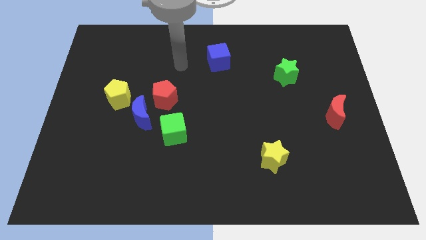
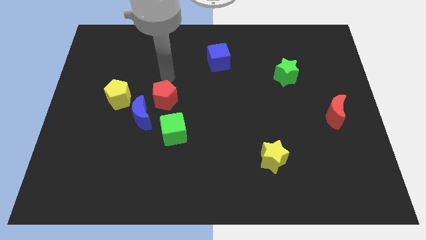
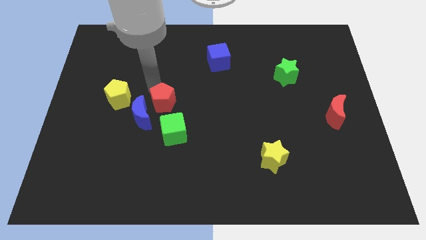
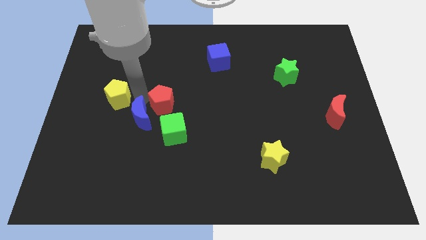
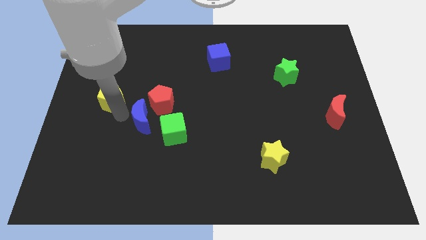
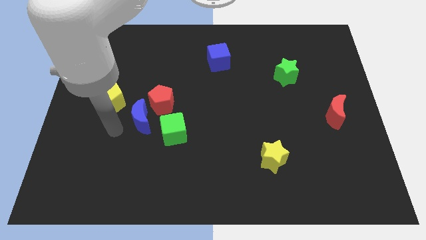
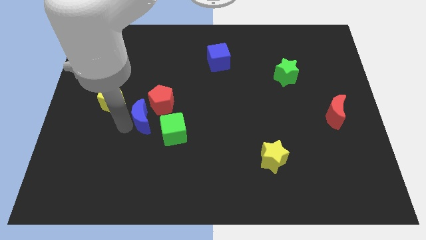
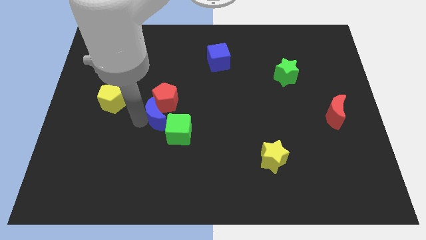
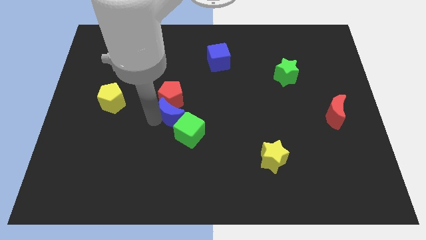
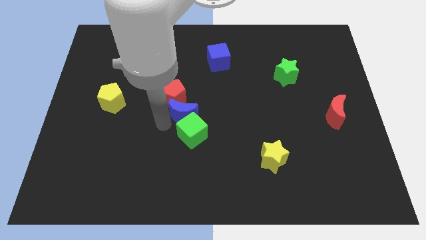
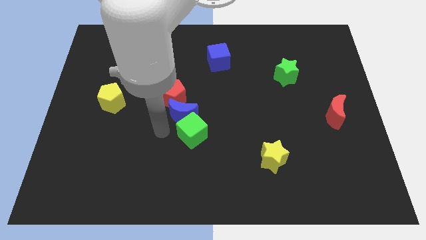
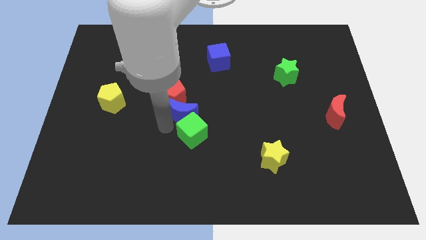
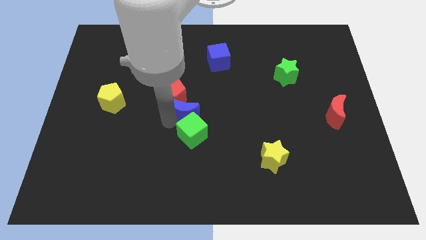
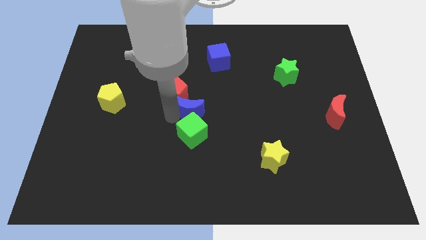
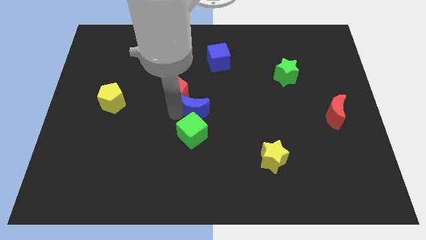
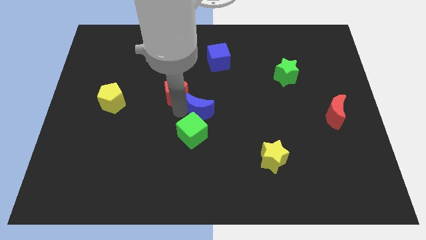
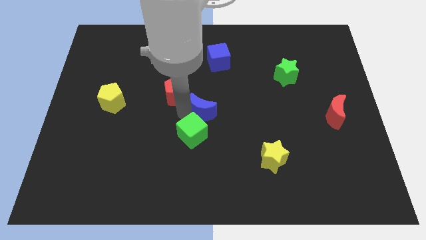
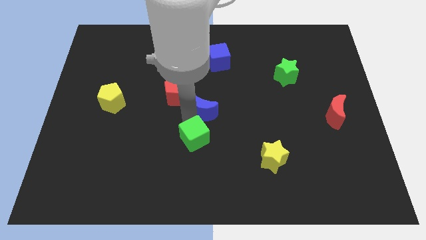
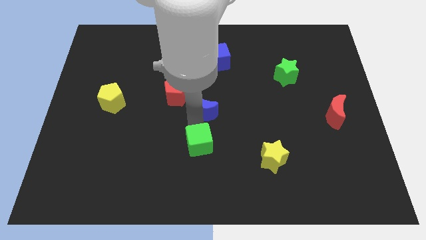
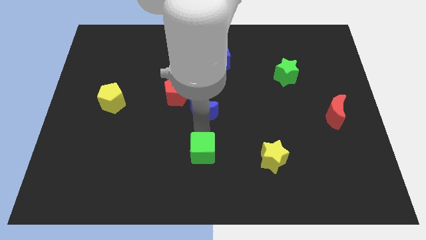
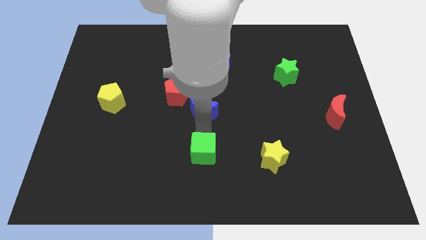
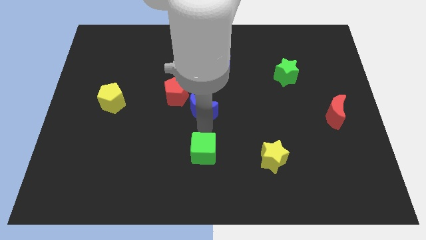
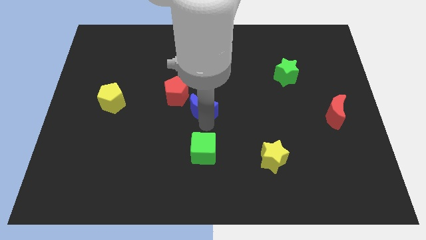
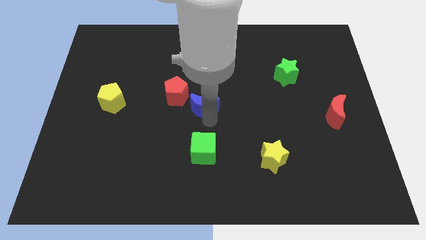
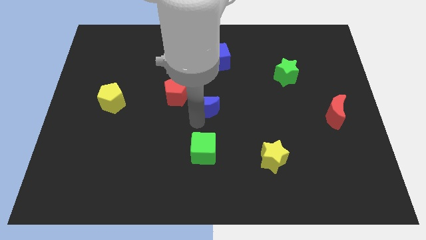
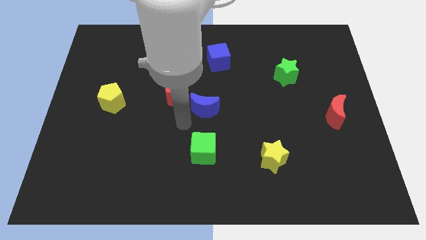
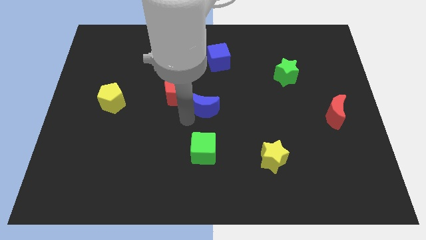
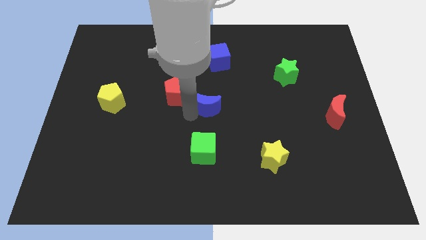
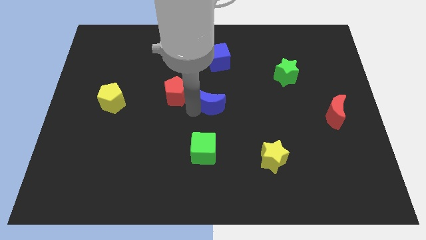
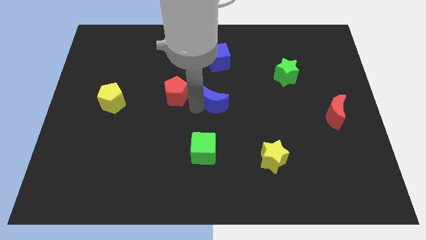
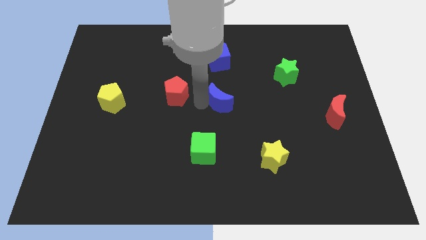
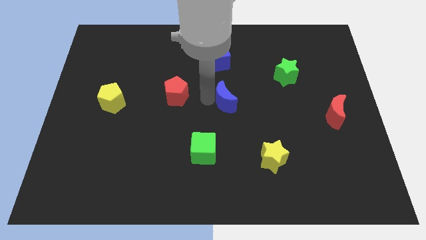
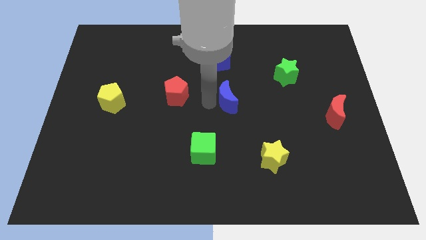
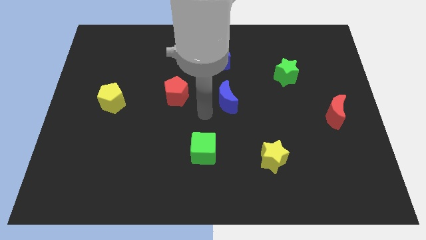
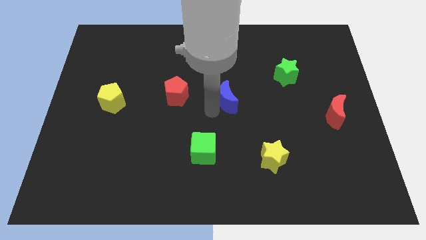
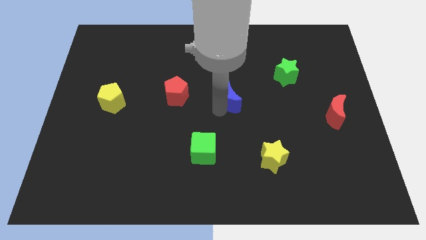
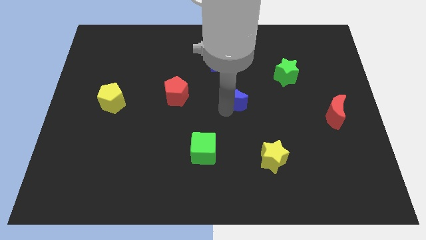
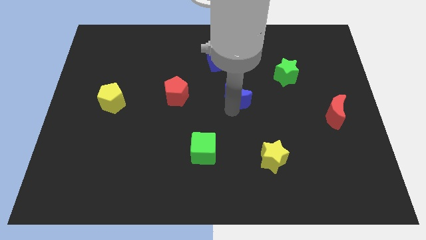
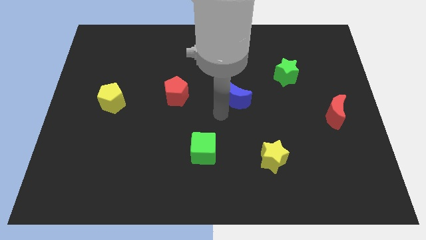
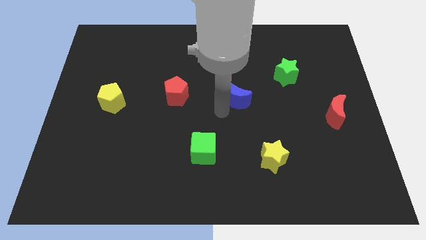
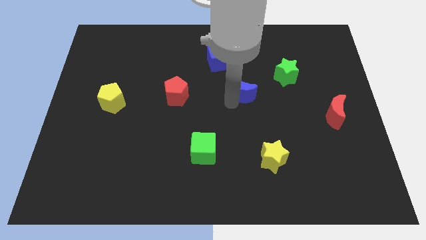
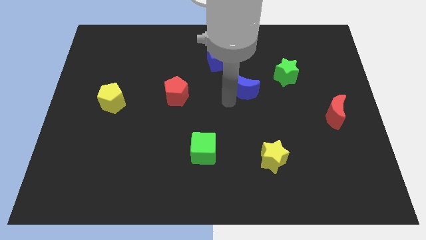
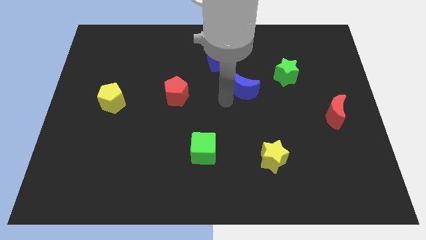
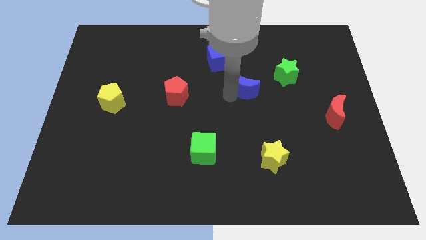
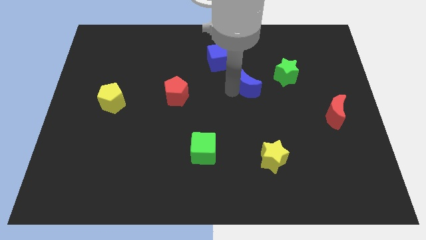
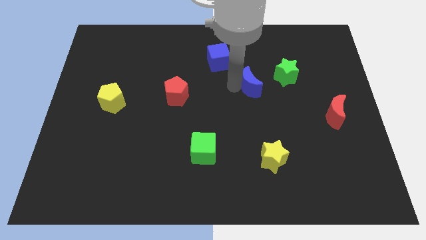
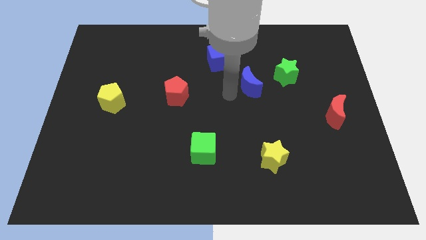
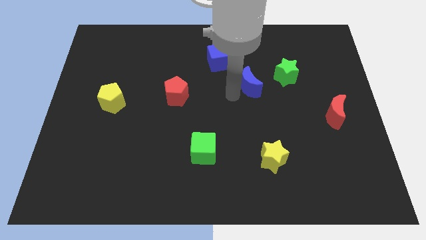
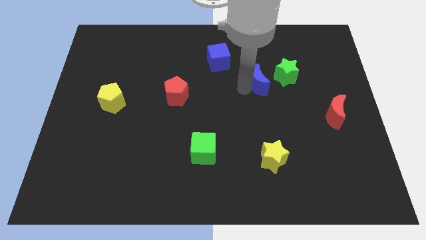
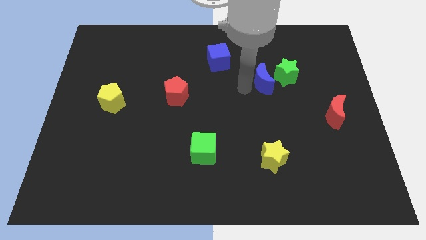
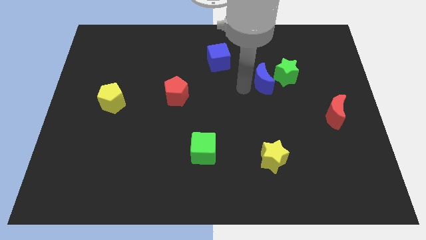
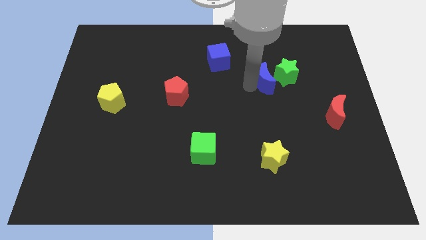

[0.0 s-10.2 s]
put the blue moon to the green star

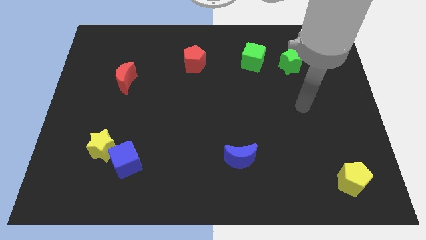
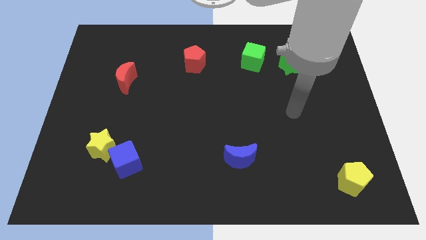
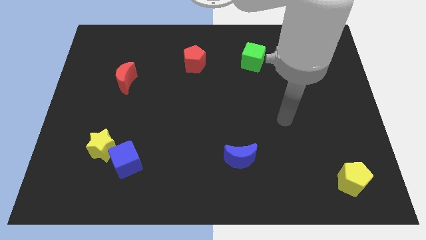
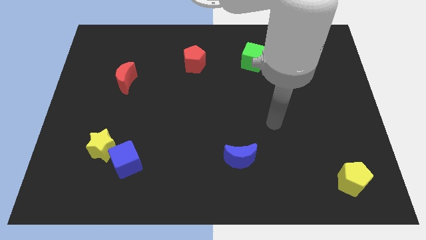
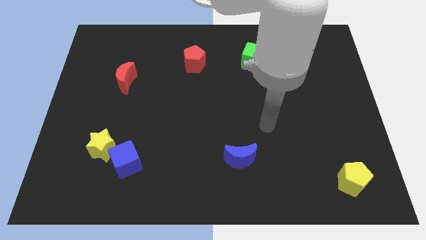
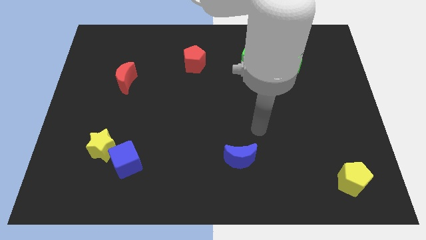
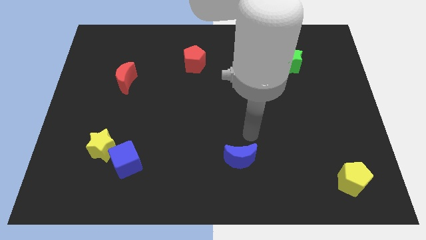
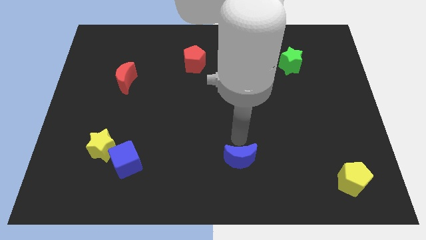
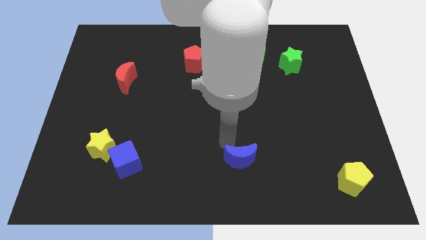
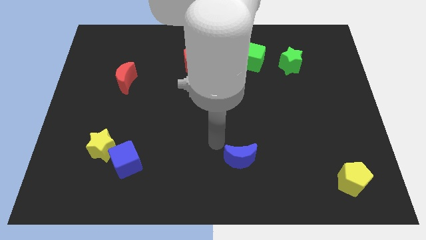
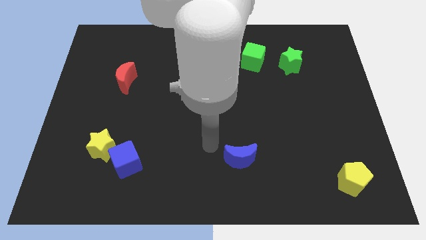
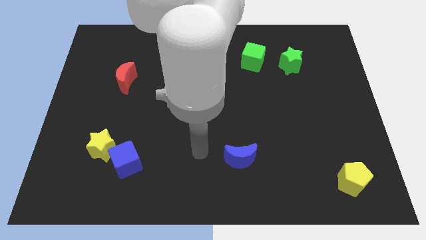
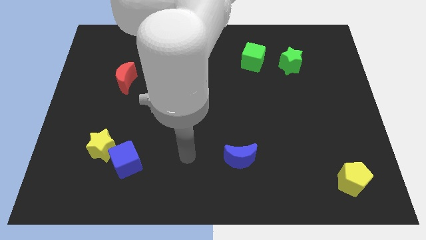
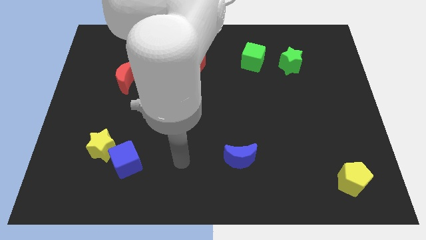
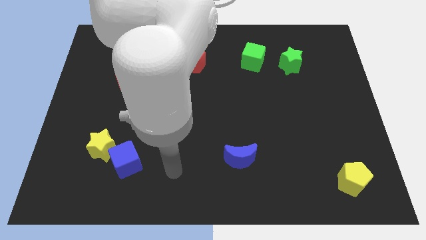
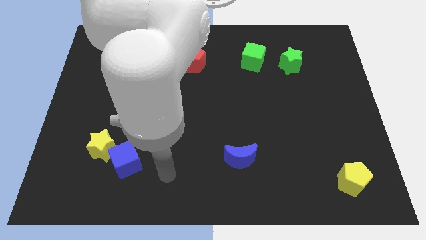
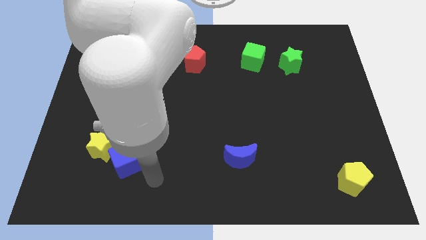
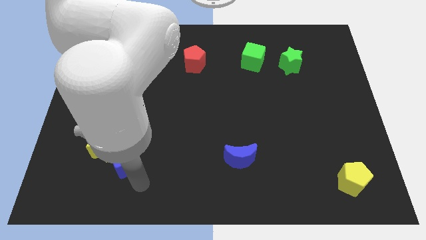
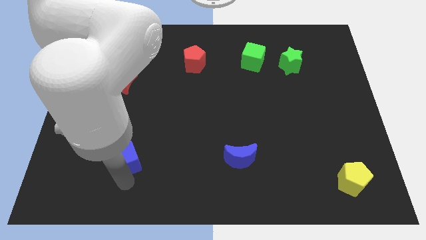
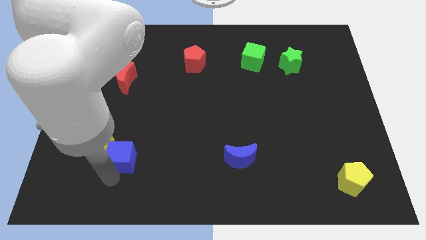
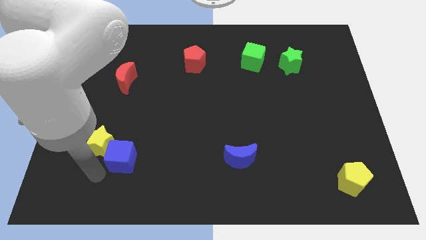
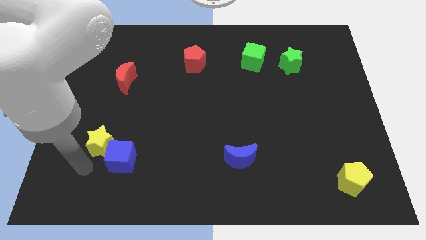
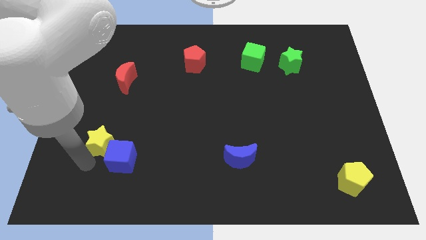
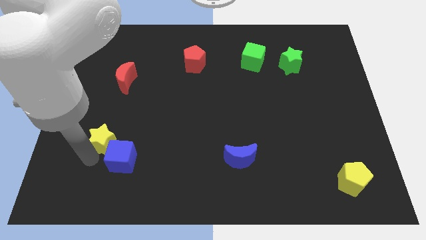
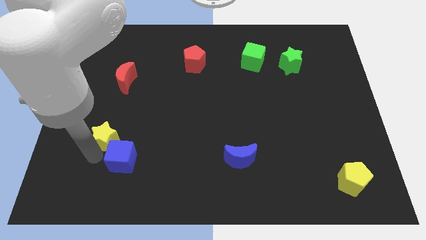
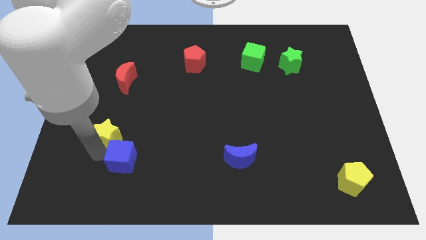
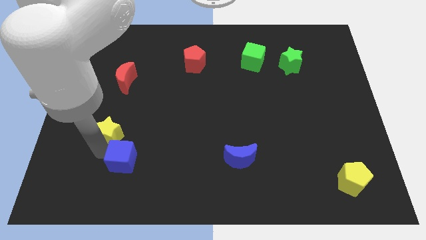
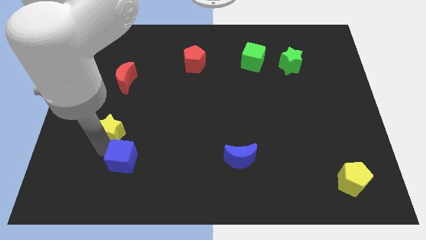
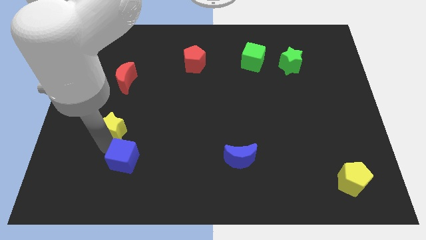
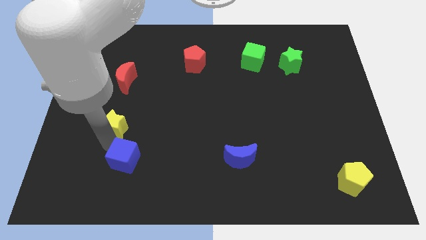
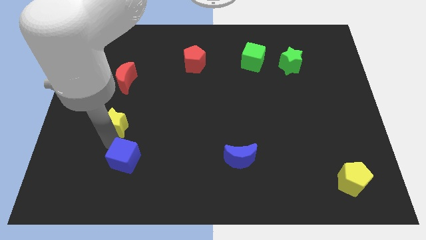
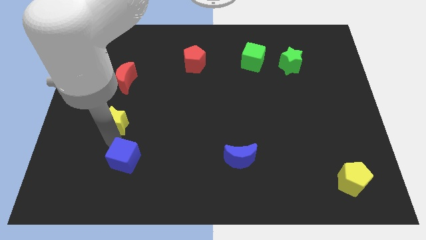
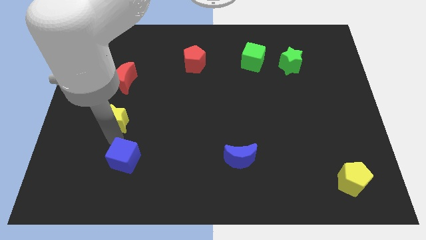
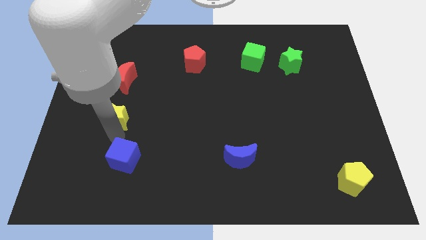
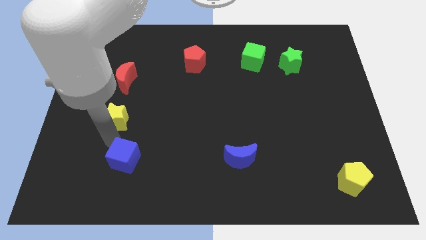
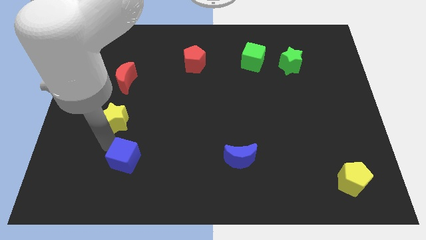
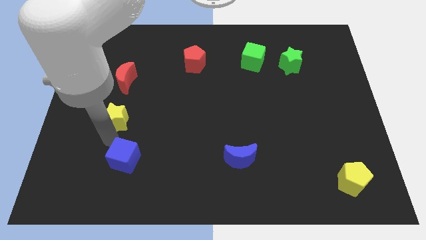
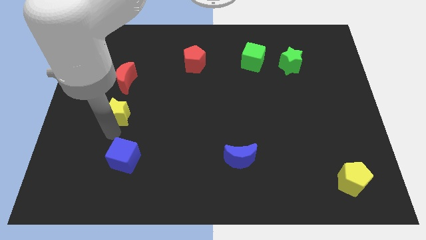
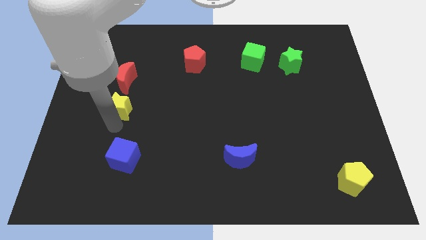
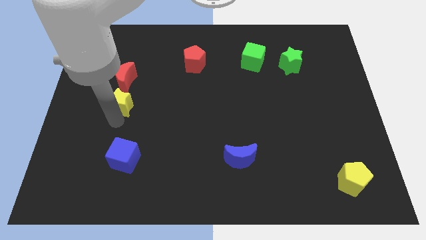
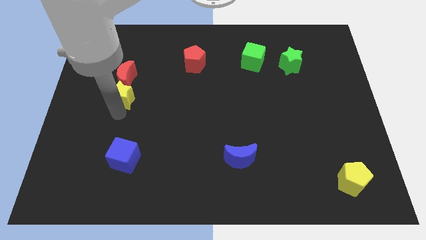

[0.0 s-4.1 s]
slide the yellow star close to the red moon
